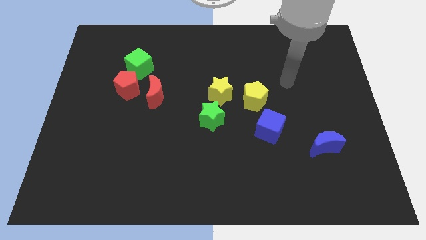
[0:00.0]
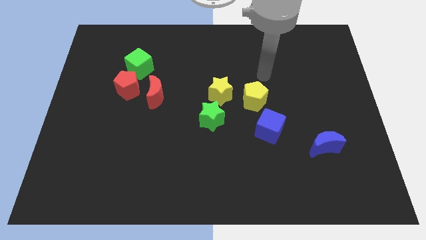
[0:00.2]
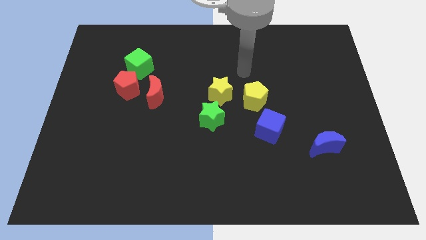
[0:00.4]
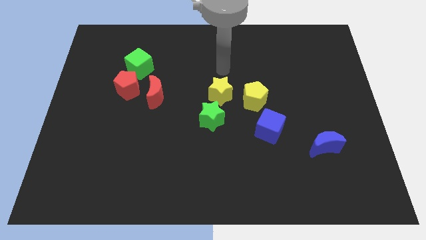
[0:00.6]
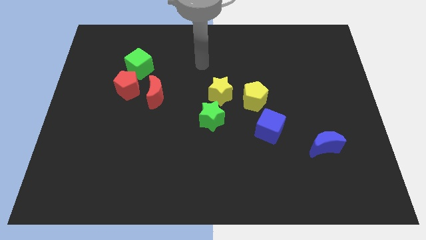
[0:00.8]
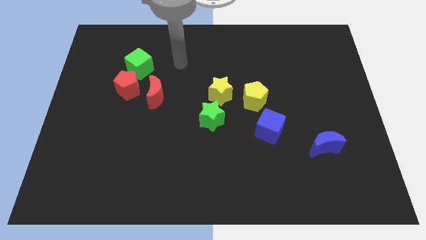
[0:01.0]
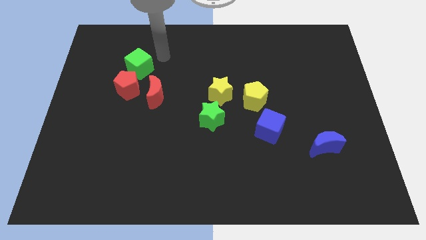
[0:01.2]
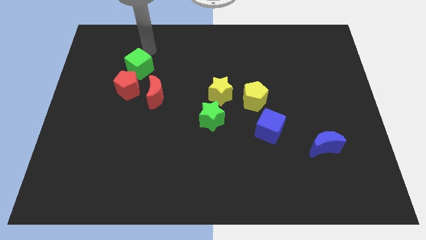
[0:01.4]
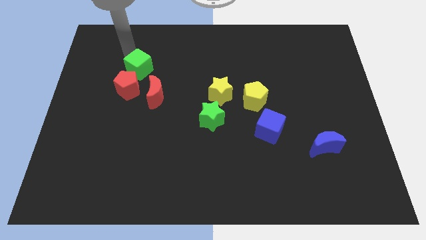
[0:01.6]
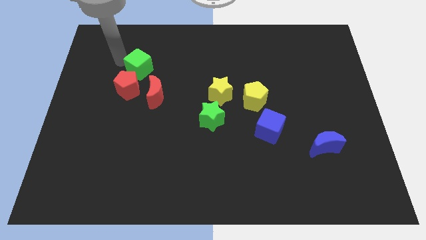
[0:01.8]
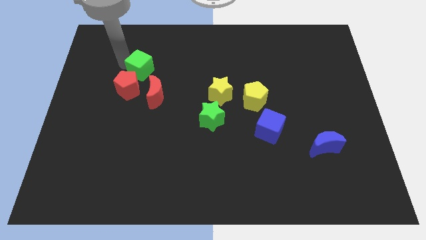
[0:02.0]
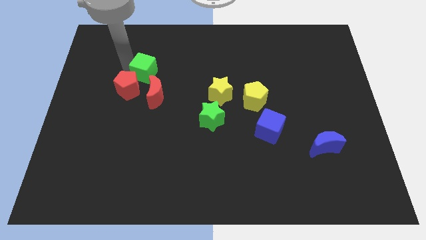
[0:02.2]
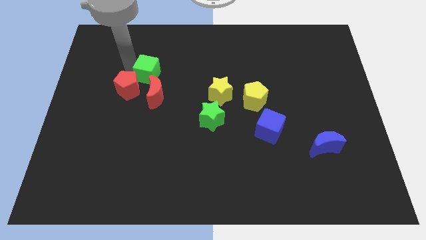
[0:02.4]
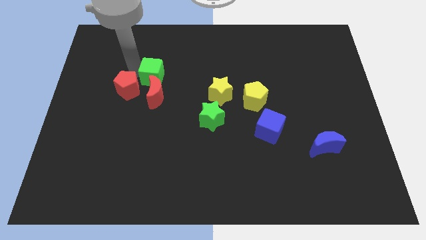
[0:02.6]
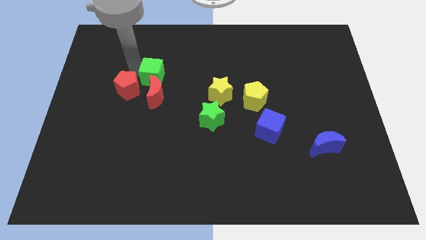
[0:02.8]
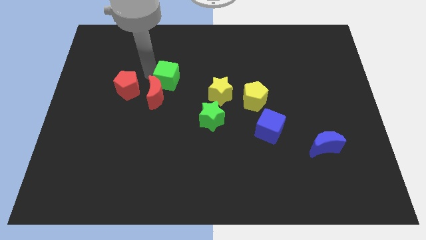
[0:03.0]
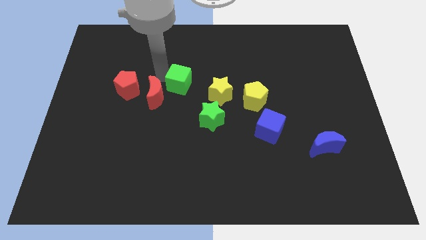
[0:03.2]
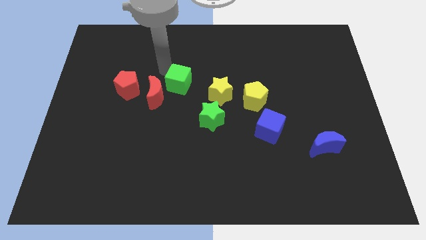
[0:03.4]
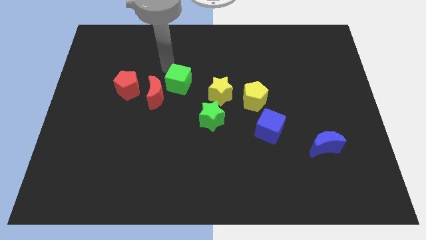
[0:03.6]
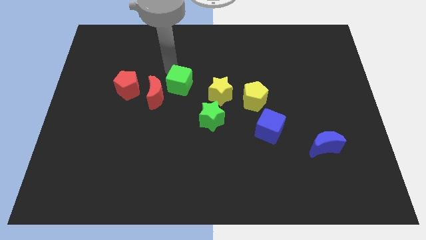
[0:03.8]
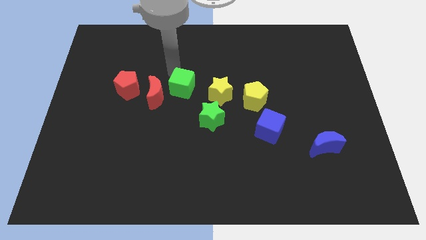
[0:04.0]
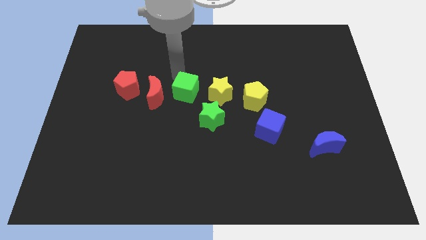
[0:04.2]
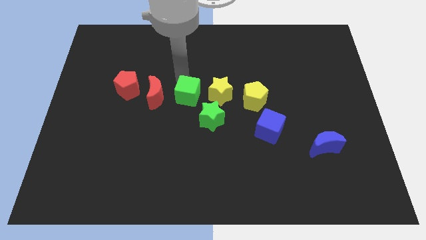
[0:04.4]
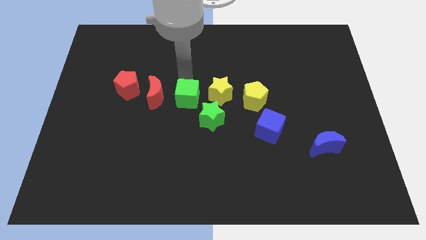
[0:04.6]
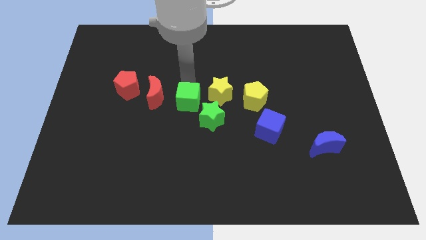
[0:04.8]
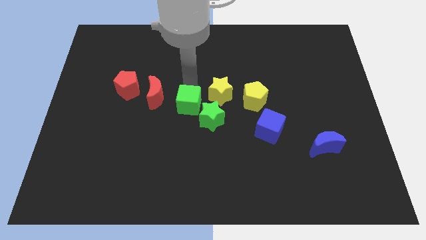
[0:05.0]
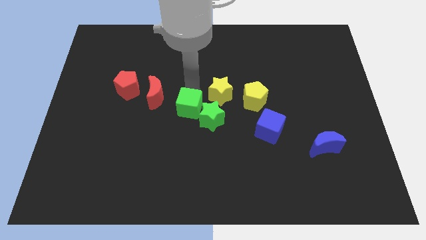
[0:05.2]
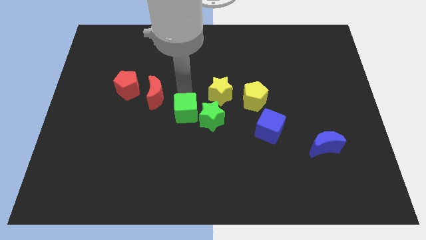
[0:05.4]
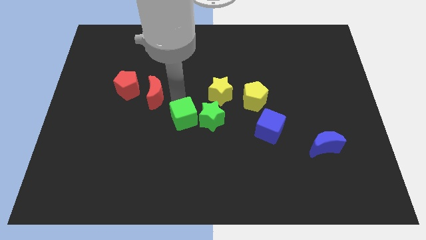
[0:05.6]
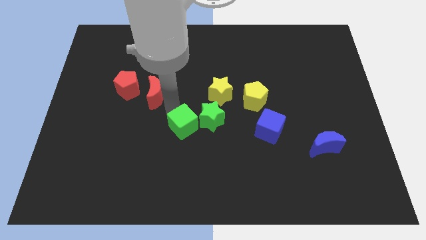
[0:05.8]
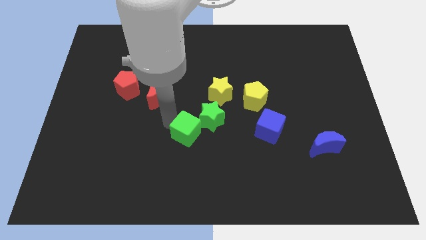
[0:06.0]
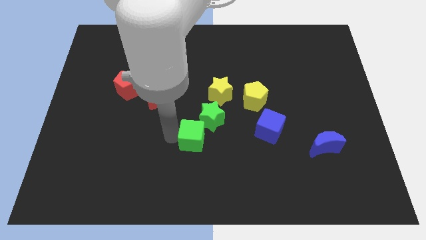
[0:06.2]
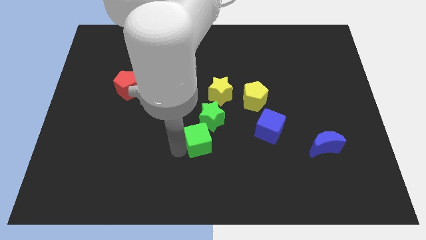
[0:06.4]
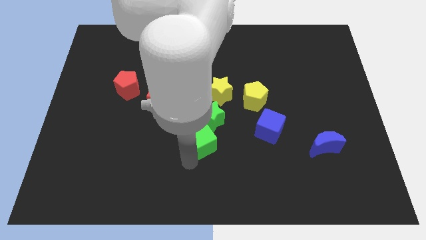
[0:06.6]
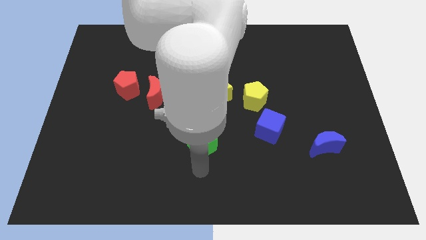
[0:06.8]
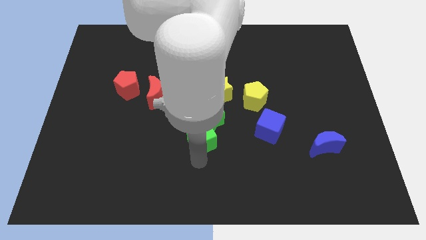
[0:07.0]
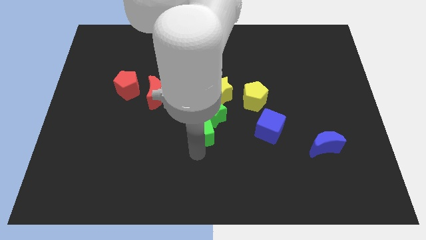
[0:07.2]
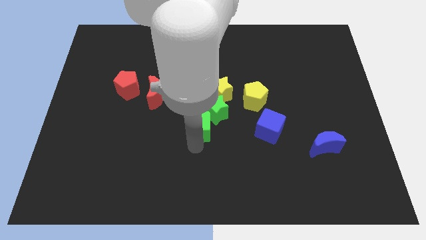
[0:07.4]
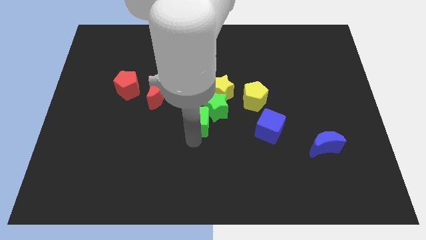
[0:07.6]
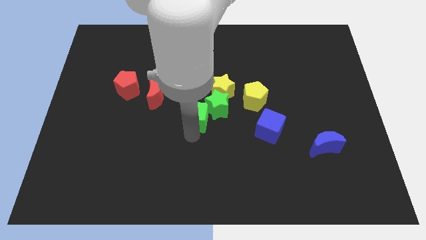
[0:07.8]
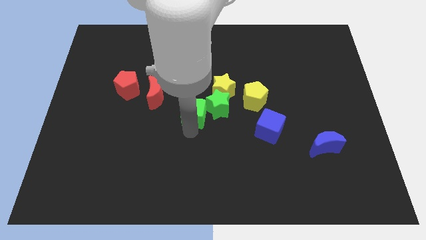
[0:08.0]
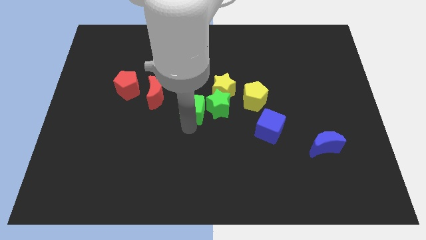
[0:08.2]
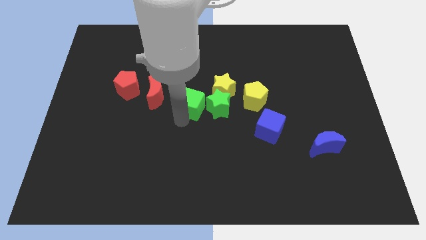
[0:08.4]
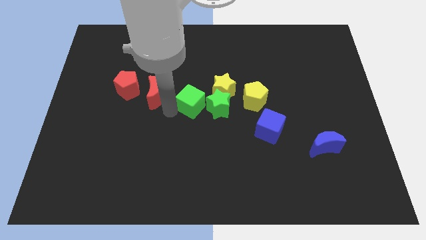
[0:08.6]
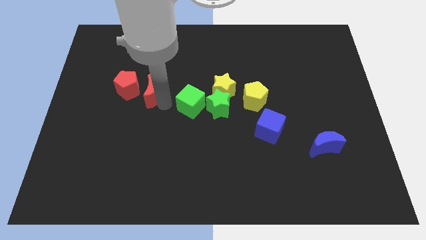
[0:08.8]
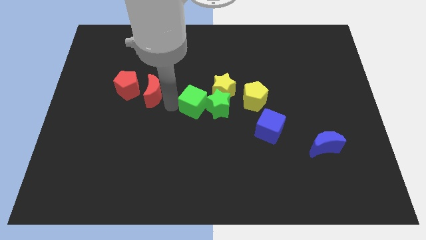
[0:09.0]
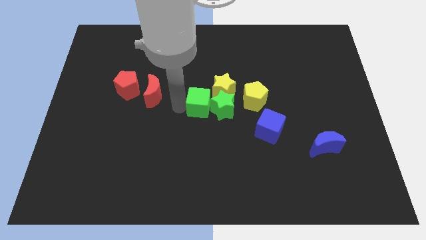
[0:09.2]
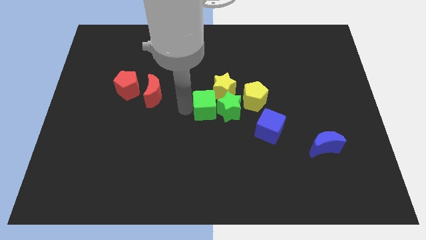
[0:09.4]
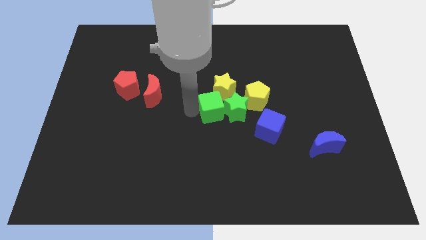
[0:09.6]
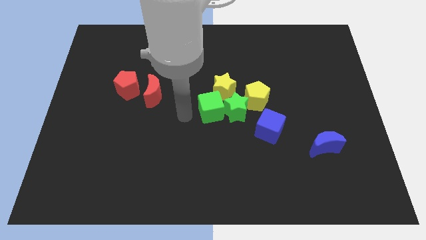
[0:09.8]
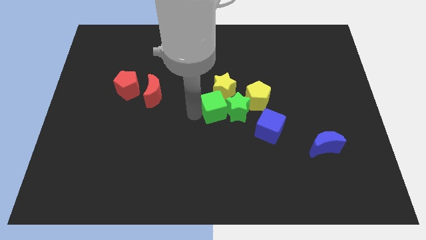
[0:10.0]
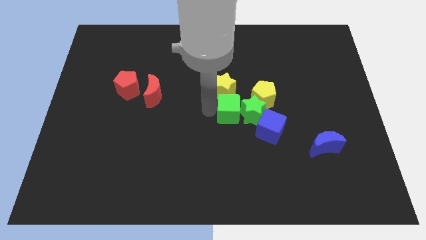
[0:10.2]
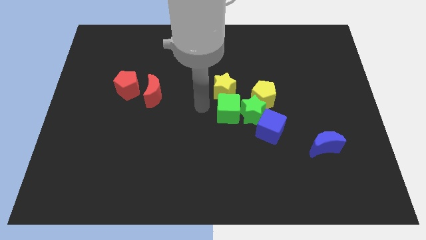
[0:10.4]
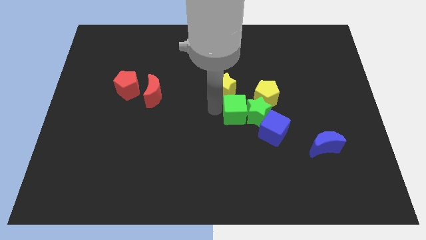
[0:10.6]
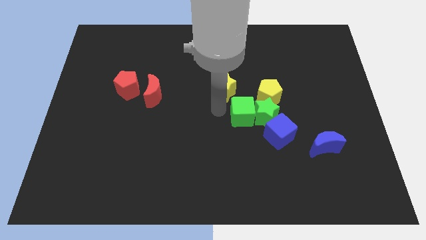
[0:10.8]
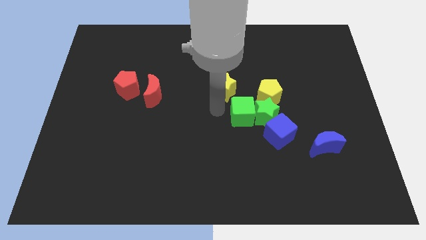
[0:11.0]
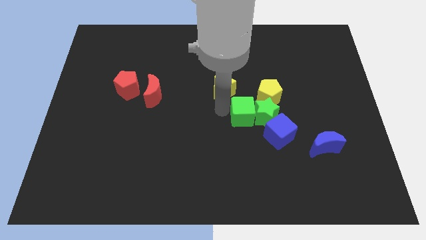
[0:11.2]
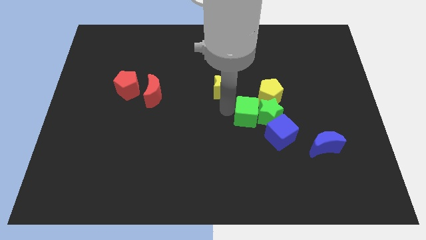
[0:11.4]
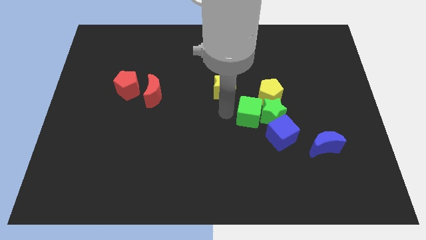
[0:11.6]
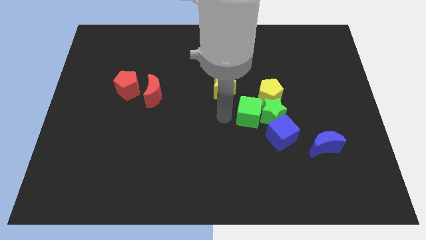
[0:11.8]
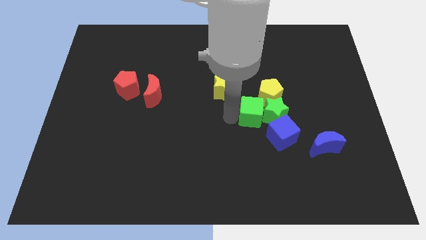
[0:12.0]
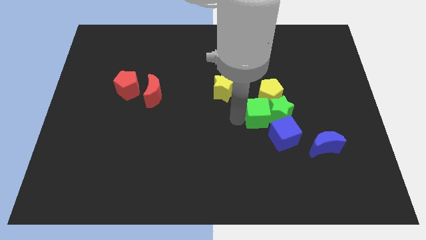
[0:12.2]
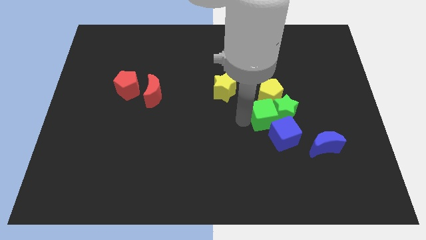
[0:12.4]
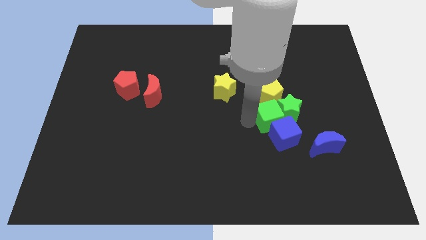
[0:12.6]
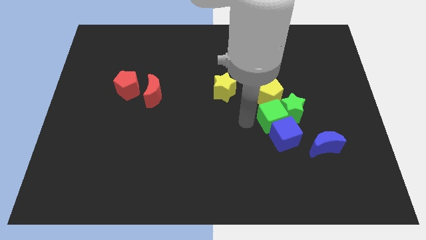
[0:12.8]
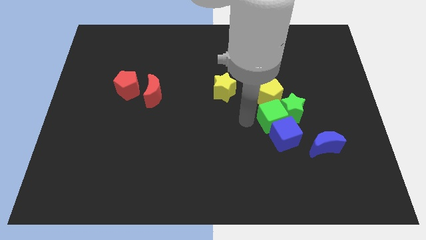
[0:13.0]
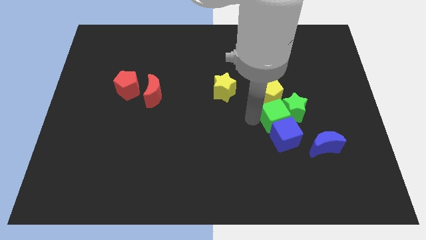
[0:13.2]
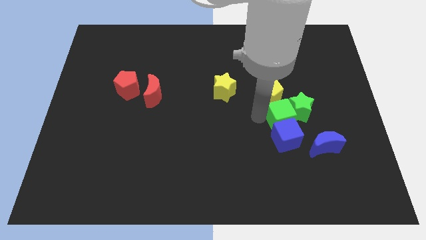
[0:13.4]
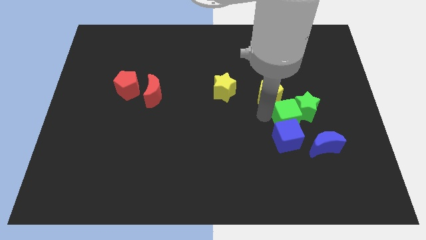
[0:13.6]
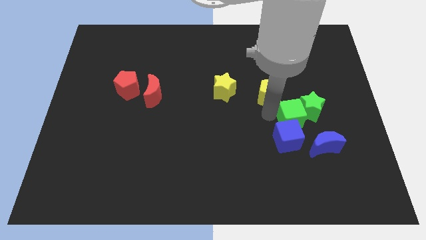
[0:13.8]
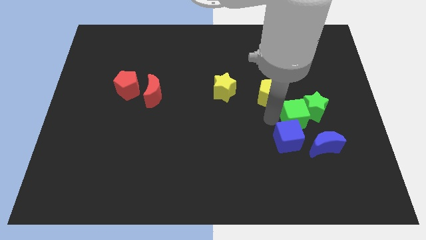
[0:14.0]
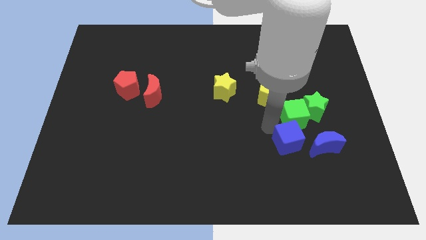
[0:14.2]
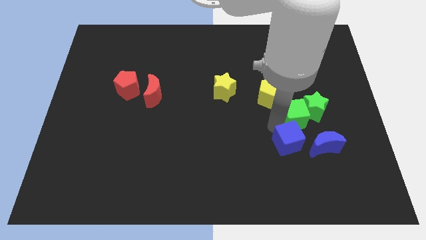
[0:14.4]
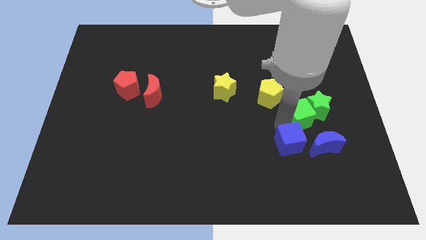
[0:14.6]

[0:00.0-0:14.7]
slide the green cube to the top of the blue moon

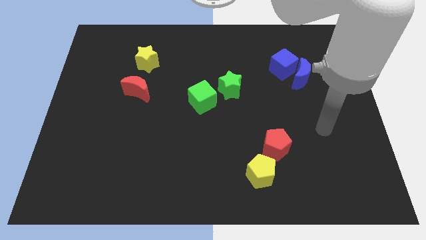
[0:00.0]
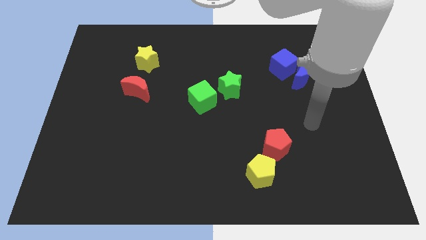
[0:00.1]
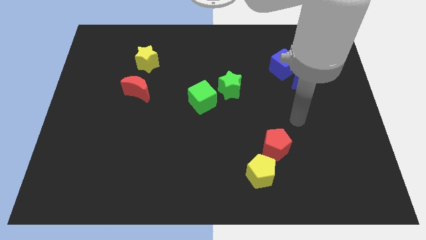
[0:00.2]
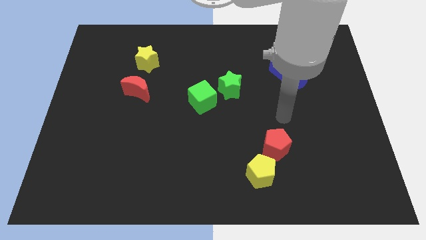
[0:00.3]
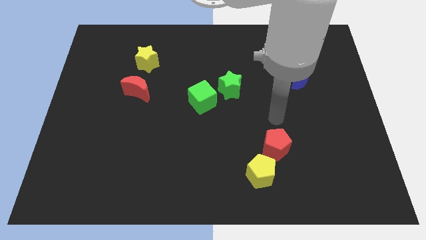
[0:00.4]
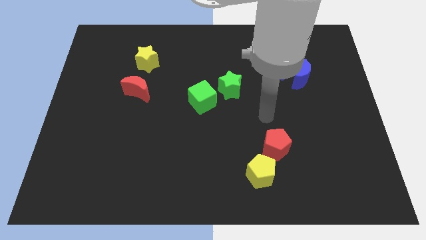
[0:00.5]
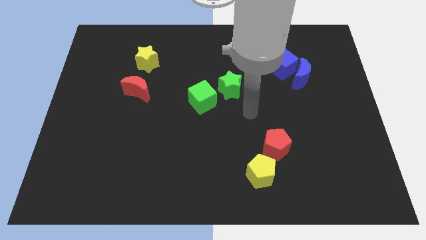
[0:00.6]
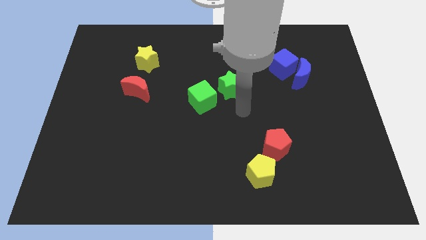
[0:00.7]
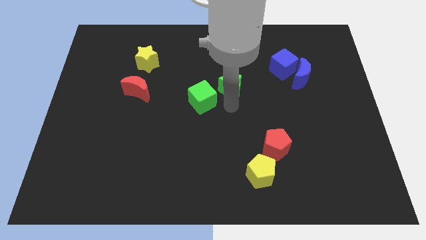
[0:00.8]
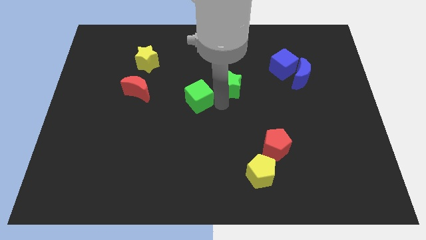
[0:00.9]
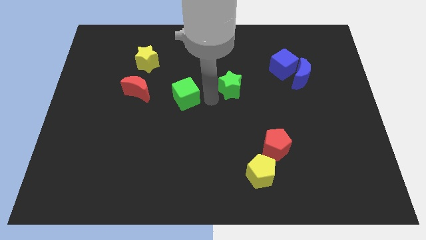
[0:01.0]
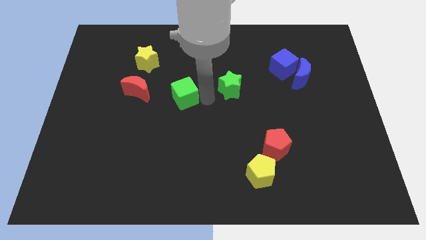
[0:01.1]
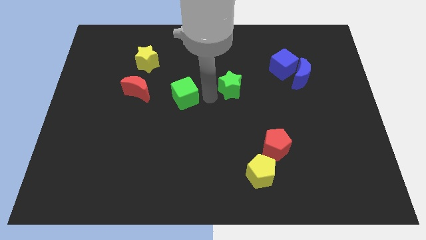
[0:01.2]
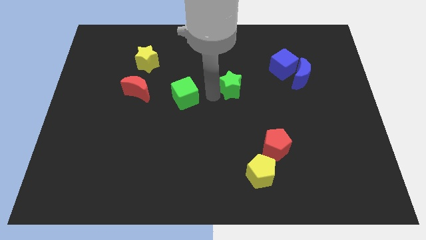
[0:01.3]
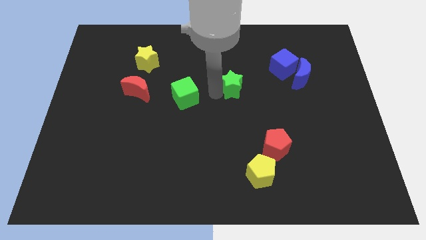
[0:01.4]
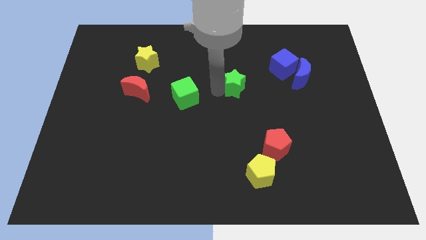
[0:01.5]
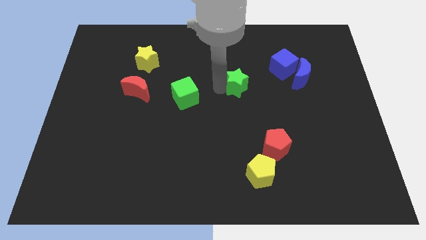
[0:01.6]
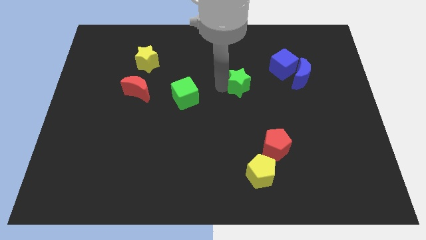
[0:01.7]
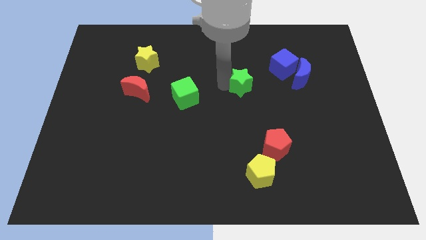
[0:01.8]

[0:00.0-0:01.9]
push the green star left of the blue moon
